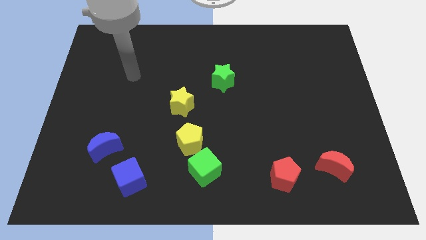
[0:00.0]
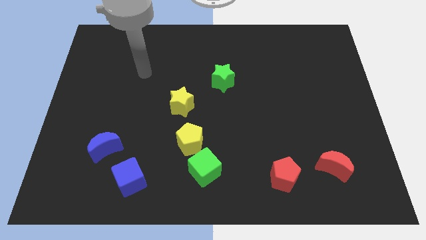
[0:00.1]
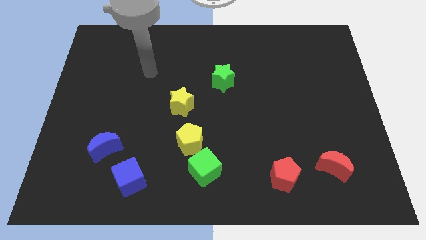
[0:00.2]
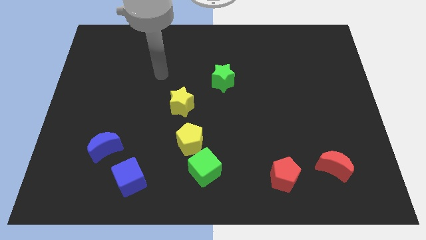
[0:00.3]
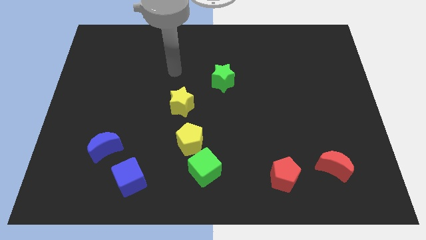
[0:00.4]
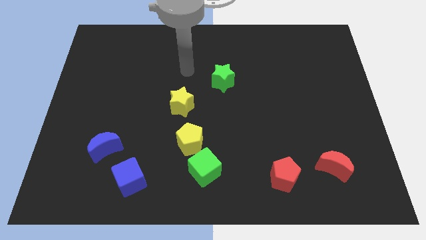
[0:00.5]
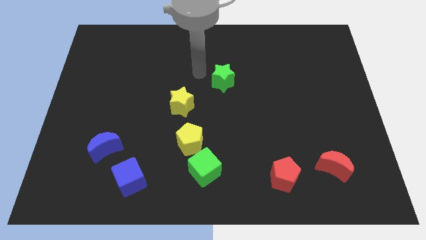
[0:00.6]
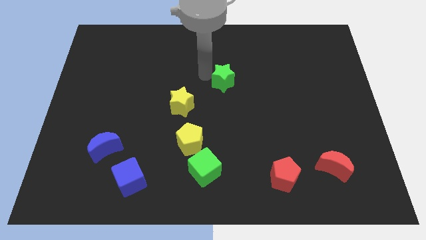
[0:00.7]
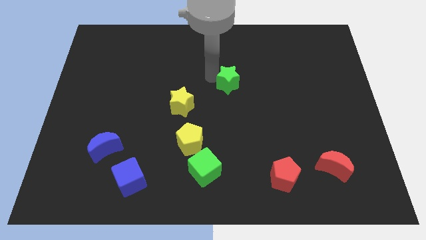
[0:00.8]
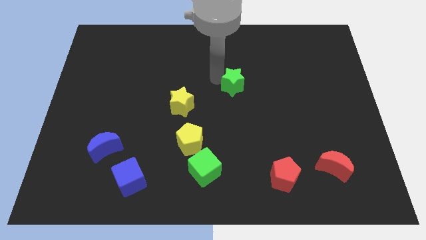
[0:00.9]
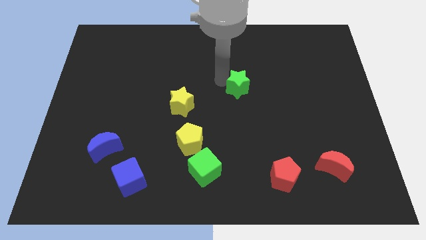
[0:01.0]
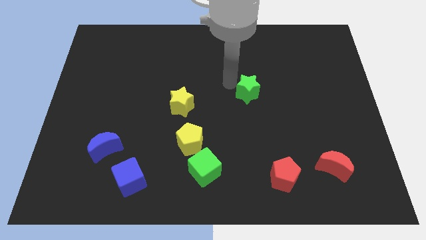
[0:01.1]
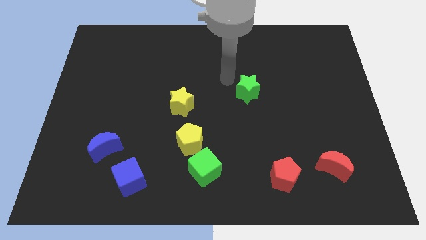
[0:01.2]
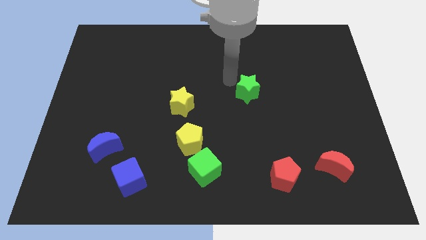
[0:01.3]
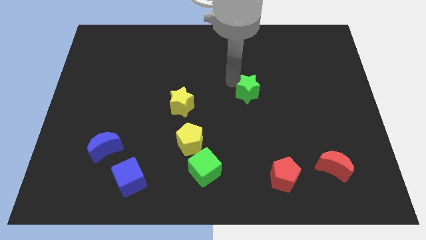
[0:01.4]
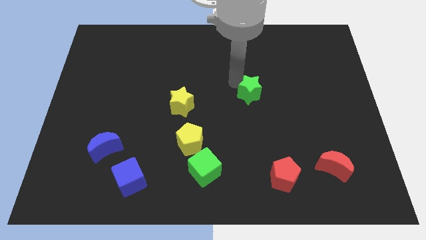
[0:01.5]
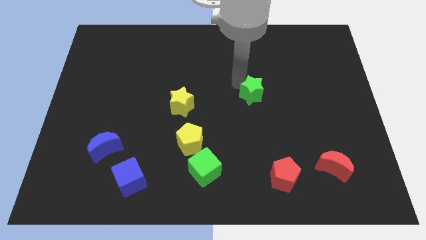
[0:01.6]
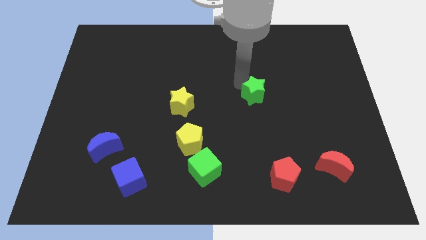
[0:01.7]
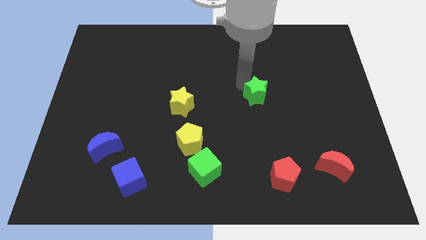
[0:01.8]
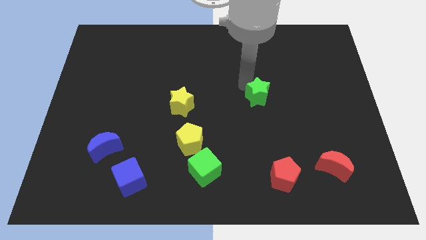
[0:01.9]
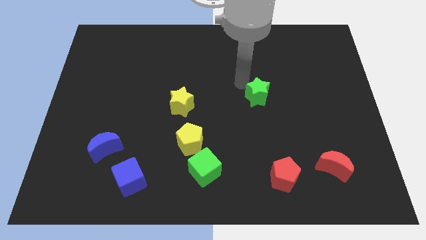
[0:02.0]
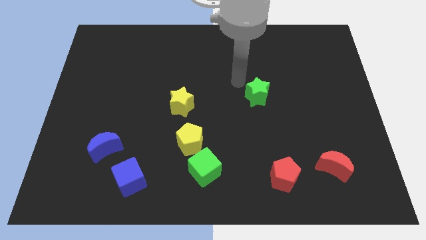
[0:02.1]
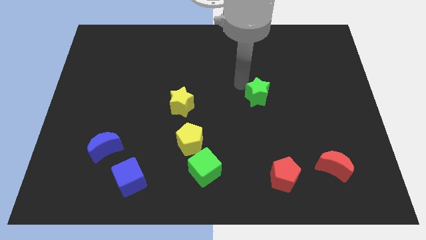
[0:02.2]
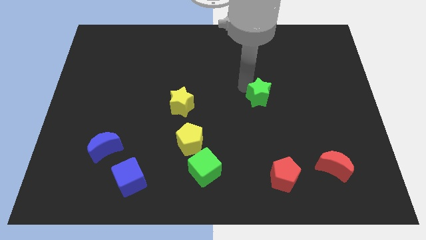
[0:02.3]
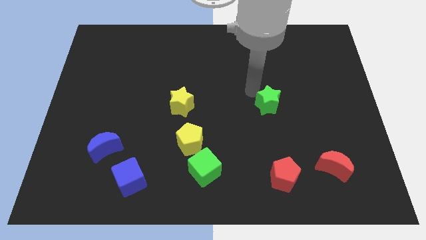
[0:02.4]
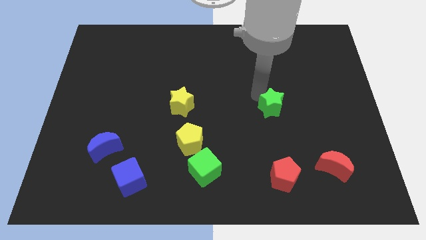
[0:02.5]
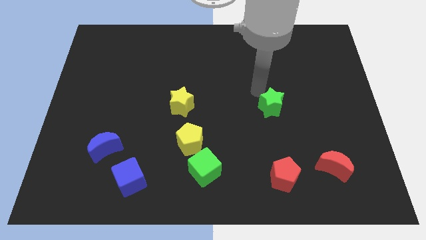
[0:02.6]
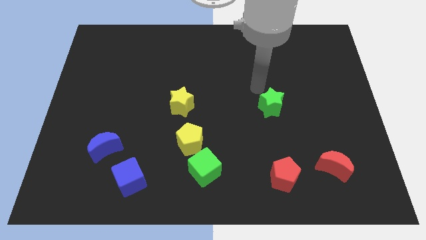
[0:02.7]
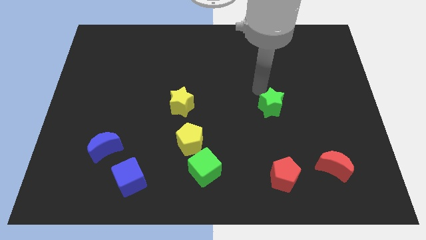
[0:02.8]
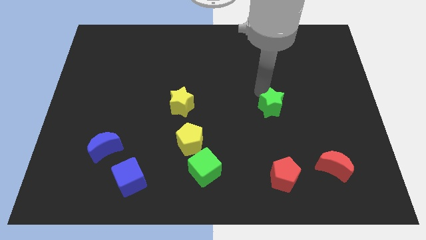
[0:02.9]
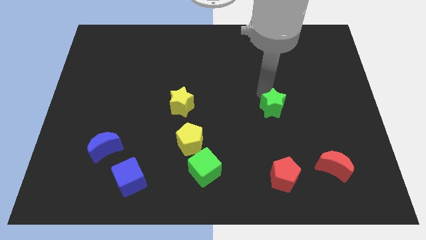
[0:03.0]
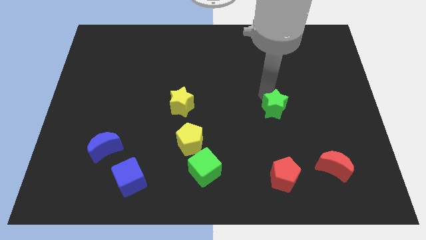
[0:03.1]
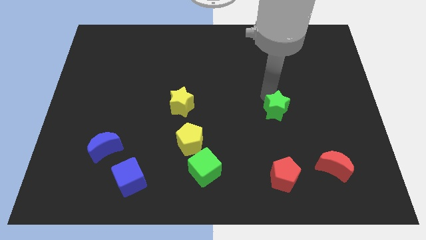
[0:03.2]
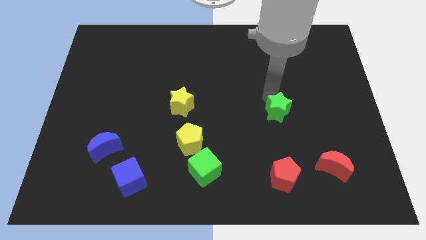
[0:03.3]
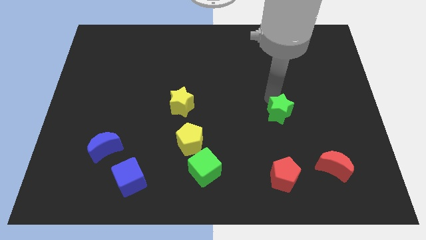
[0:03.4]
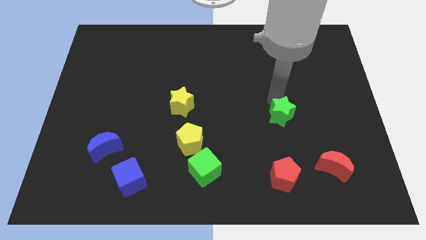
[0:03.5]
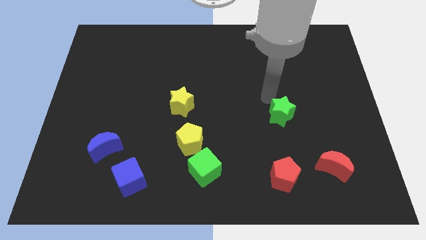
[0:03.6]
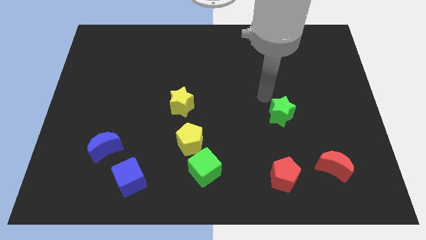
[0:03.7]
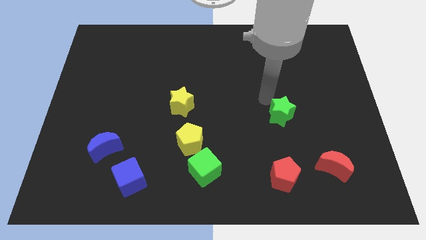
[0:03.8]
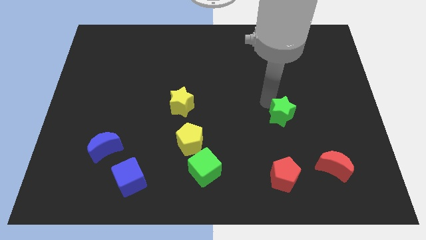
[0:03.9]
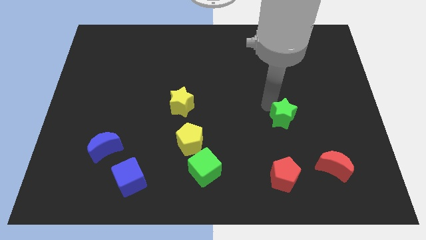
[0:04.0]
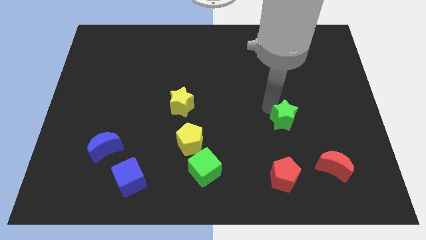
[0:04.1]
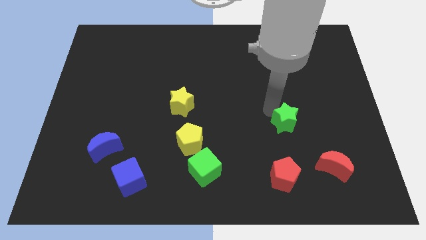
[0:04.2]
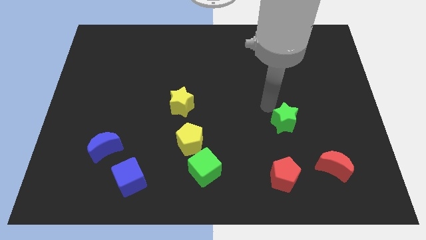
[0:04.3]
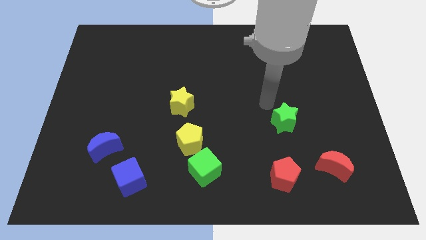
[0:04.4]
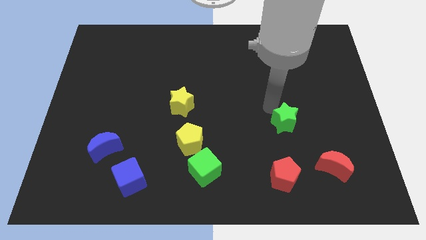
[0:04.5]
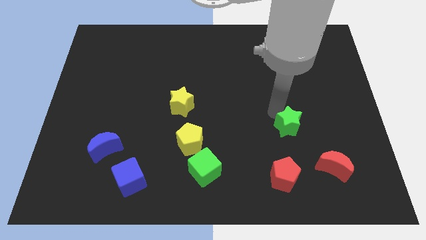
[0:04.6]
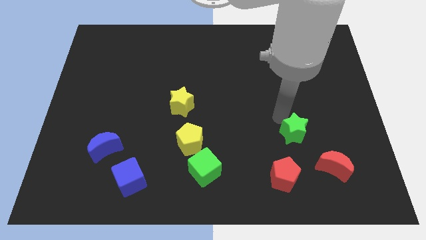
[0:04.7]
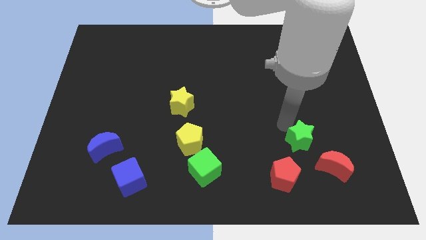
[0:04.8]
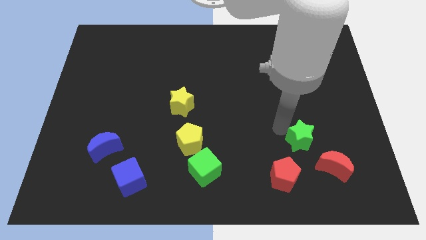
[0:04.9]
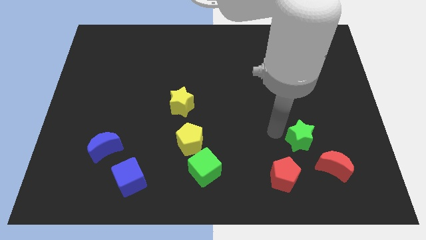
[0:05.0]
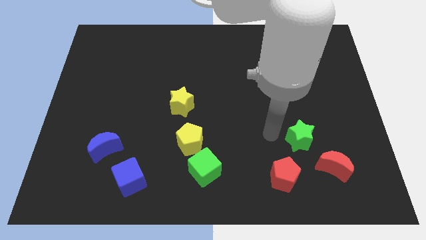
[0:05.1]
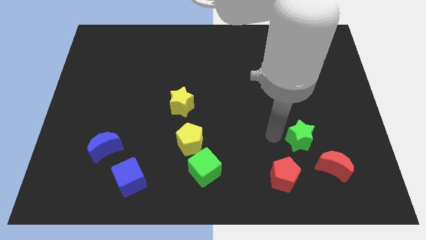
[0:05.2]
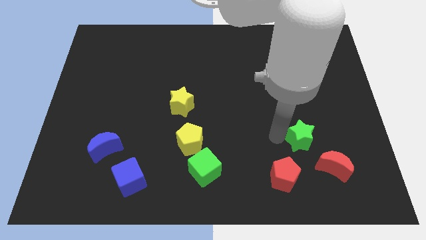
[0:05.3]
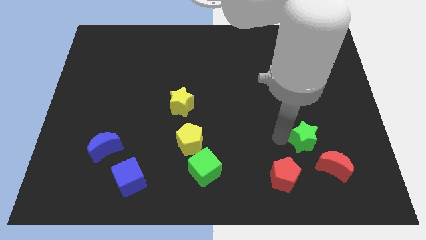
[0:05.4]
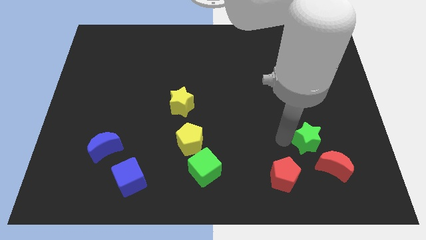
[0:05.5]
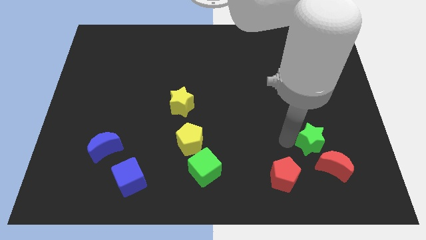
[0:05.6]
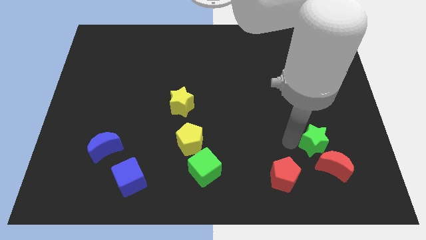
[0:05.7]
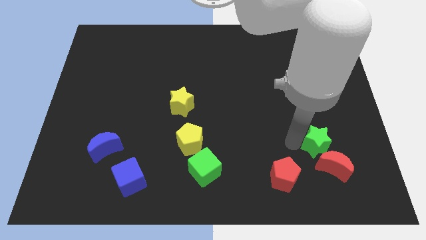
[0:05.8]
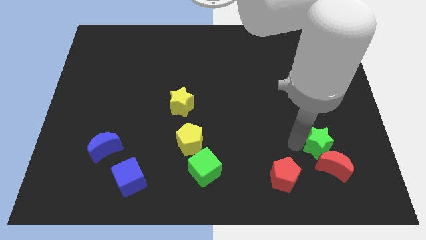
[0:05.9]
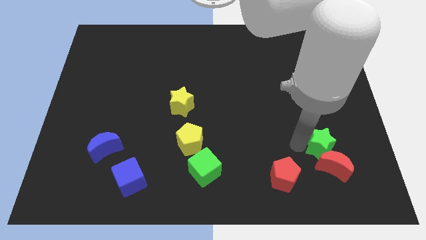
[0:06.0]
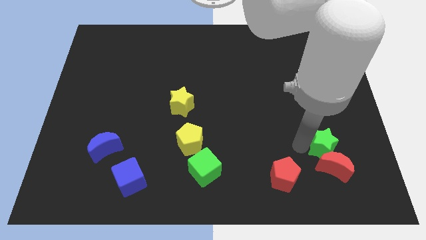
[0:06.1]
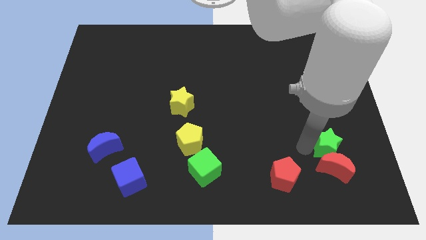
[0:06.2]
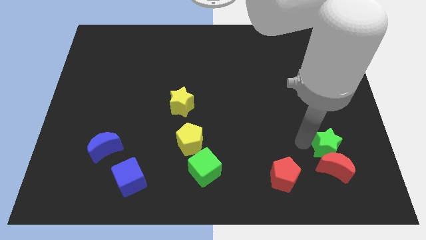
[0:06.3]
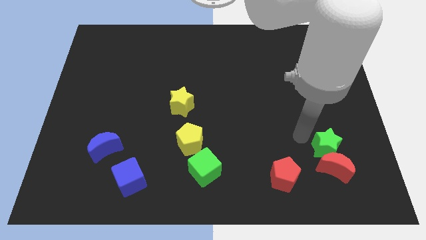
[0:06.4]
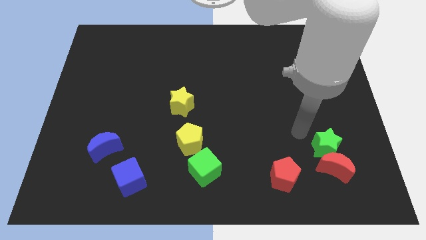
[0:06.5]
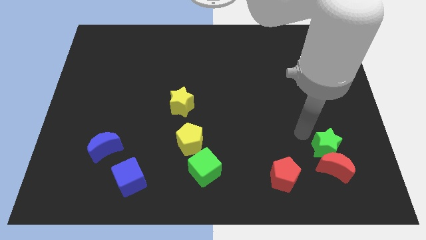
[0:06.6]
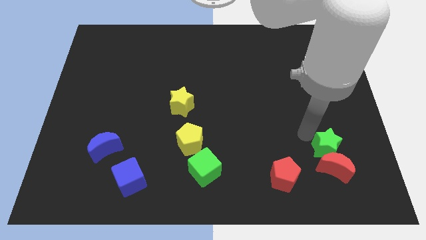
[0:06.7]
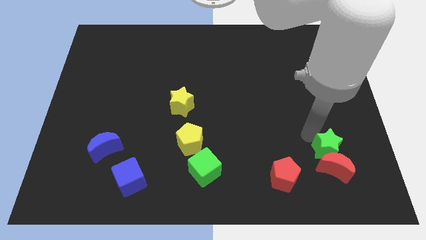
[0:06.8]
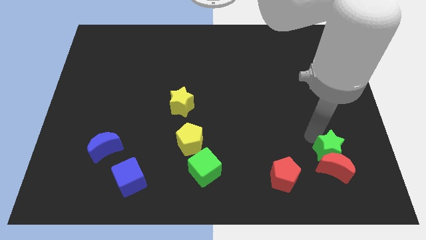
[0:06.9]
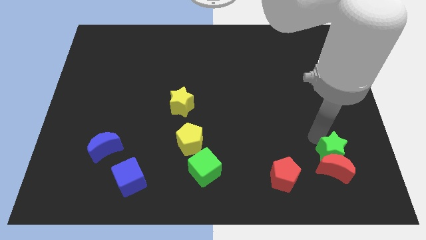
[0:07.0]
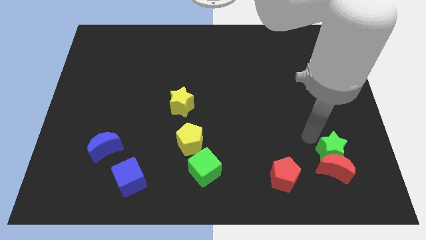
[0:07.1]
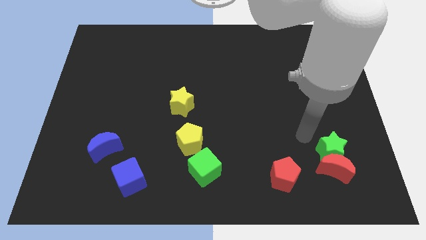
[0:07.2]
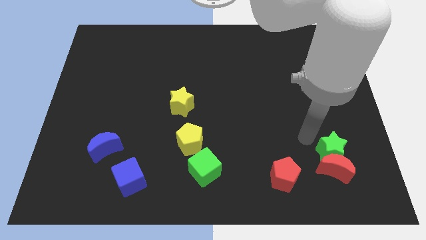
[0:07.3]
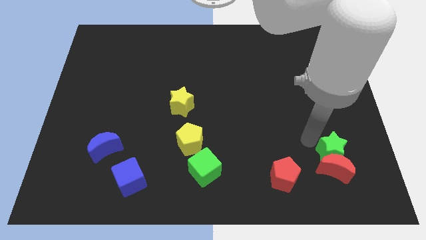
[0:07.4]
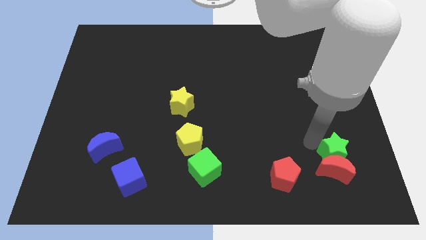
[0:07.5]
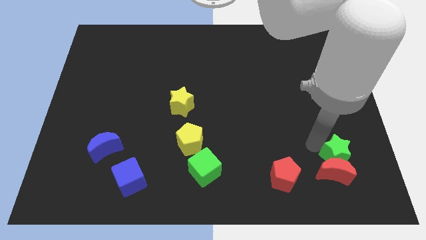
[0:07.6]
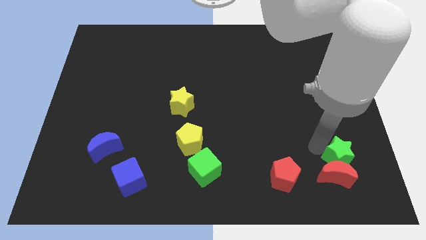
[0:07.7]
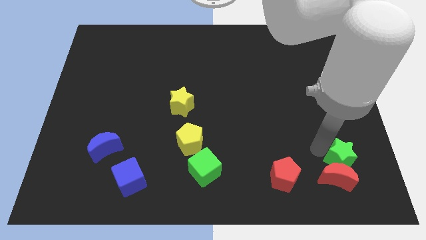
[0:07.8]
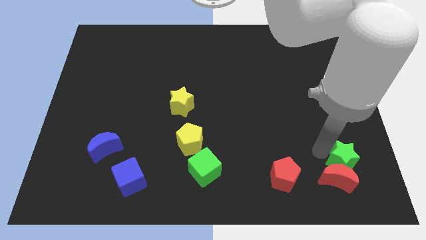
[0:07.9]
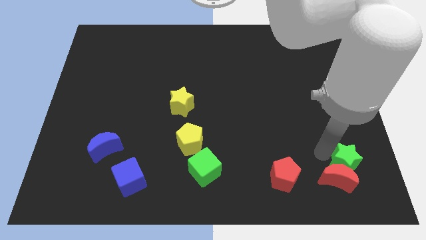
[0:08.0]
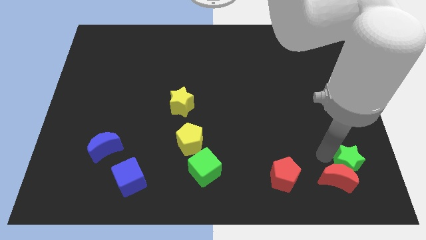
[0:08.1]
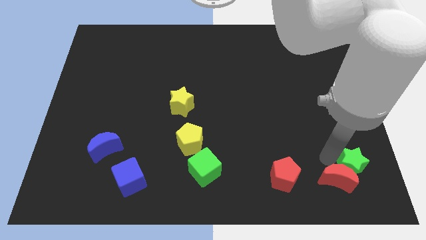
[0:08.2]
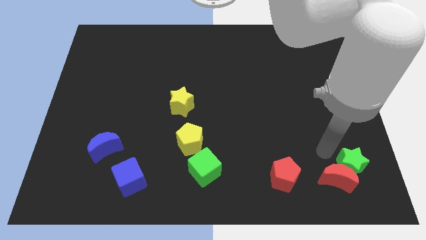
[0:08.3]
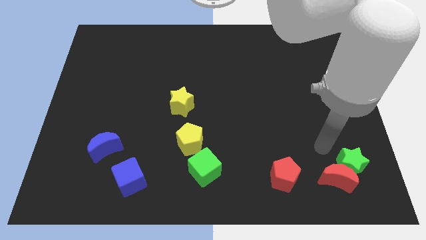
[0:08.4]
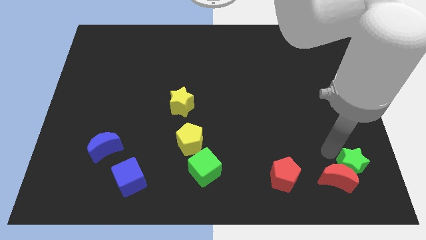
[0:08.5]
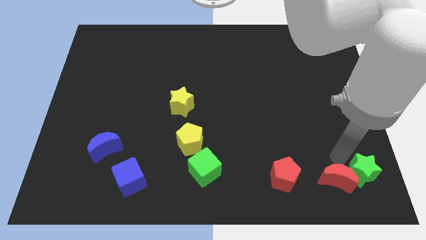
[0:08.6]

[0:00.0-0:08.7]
put the green star to the bottom right of the board
